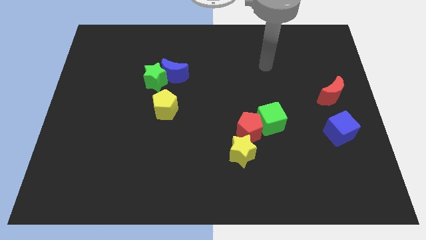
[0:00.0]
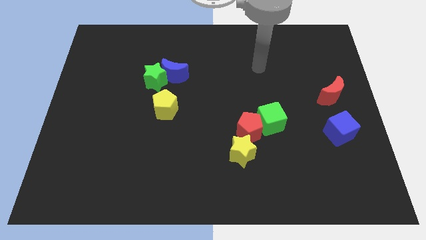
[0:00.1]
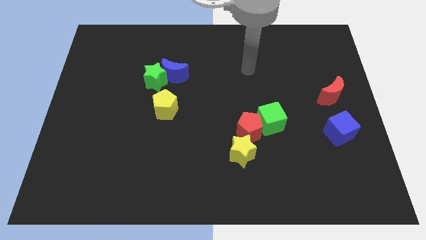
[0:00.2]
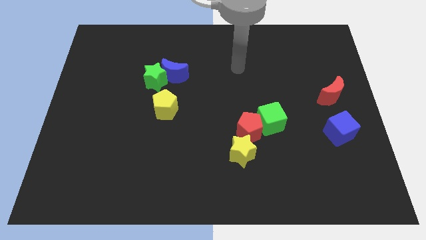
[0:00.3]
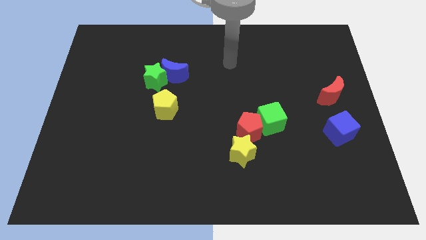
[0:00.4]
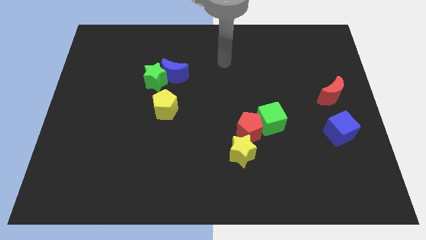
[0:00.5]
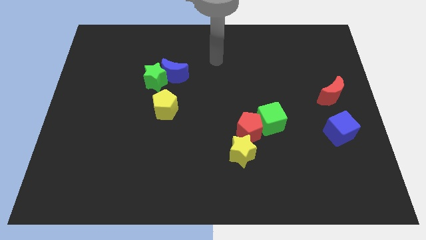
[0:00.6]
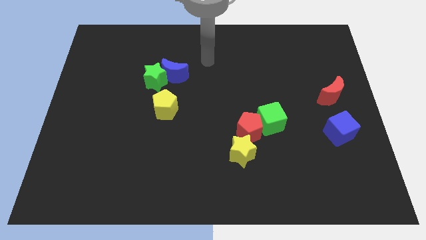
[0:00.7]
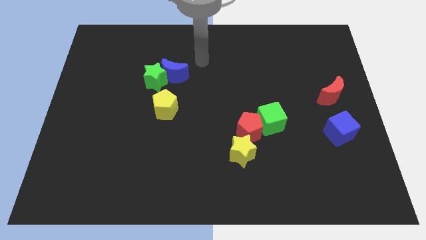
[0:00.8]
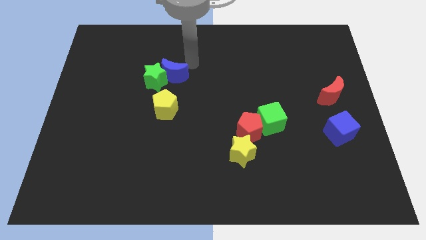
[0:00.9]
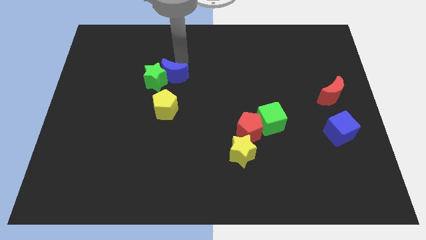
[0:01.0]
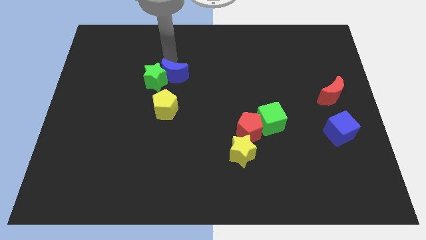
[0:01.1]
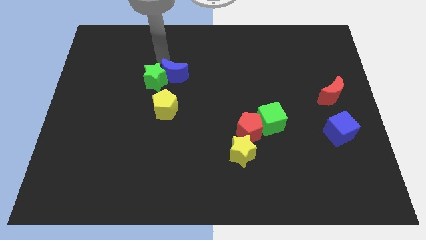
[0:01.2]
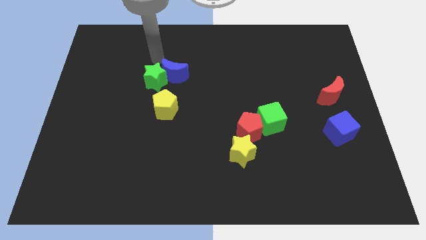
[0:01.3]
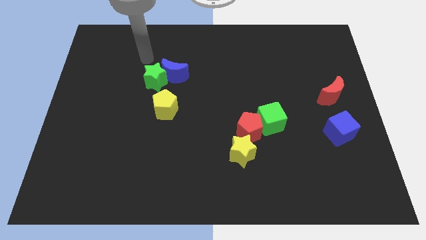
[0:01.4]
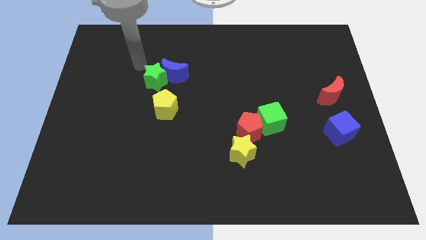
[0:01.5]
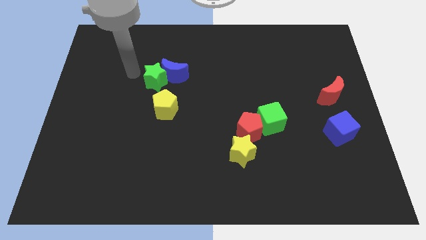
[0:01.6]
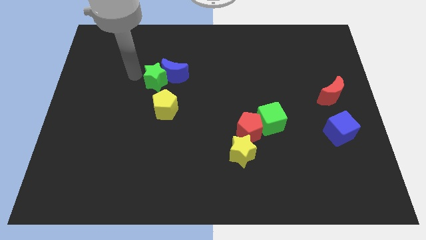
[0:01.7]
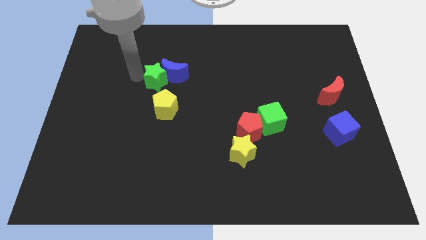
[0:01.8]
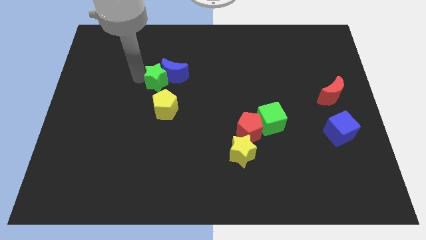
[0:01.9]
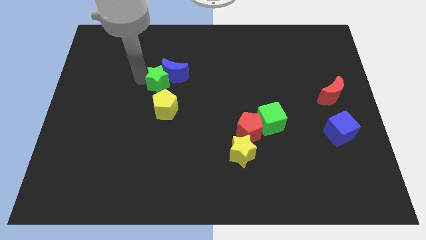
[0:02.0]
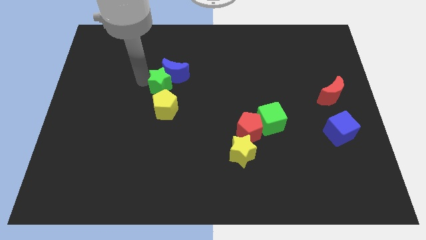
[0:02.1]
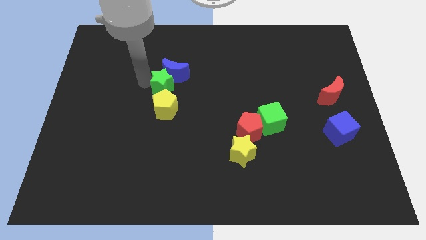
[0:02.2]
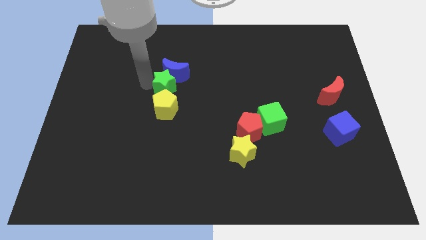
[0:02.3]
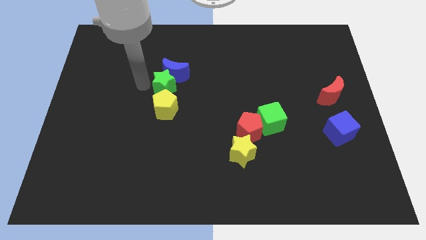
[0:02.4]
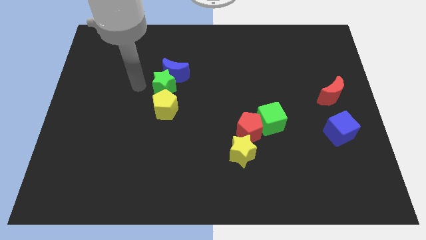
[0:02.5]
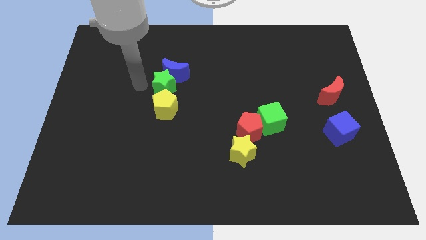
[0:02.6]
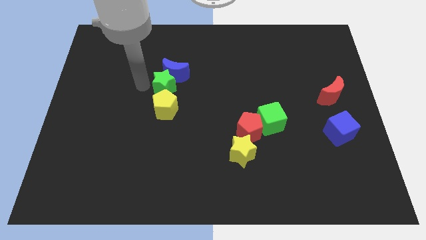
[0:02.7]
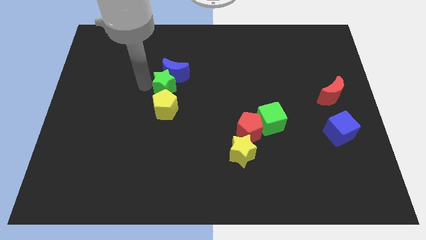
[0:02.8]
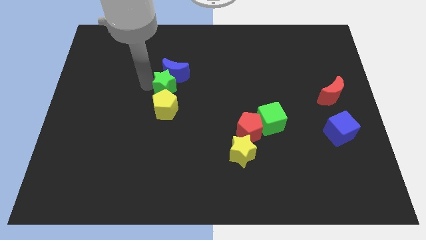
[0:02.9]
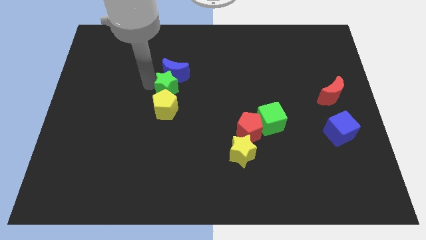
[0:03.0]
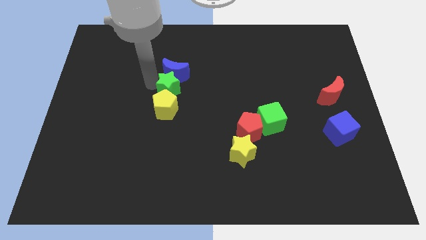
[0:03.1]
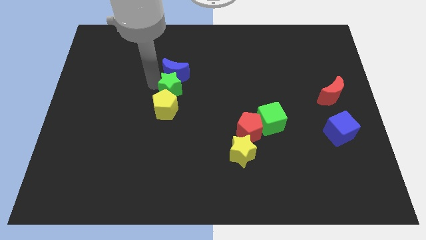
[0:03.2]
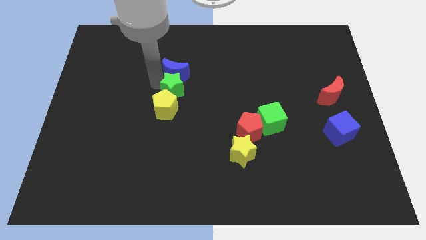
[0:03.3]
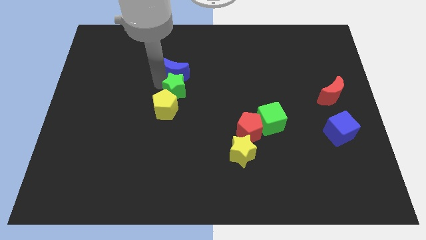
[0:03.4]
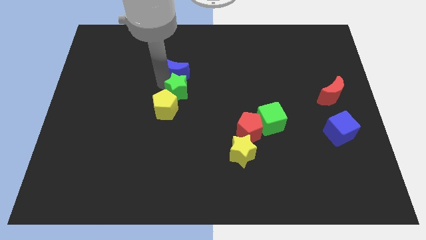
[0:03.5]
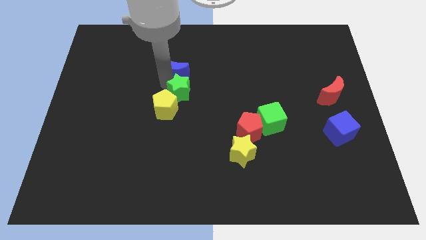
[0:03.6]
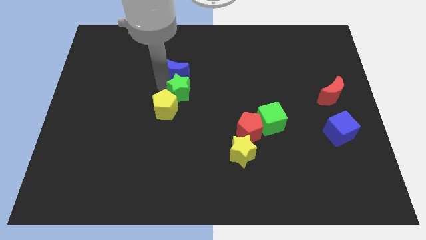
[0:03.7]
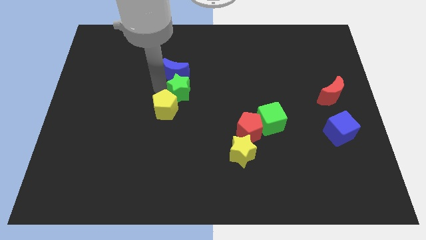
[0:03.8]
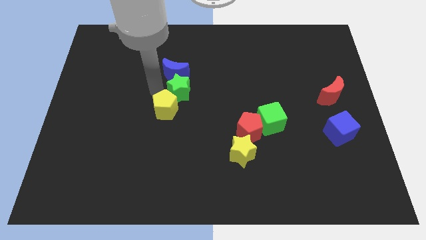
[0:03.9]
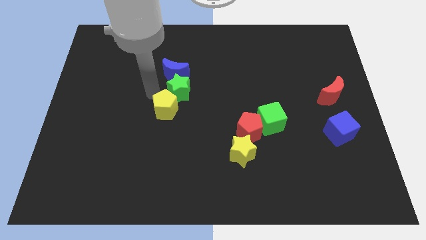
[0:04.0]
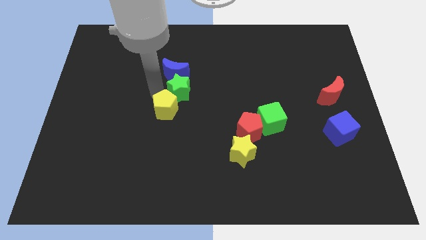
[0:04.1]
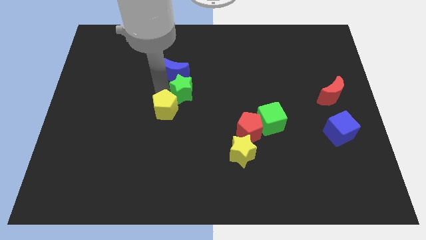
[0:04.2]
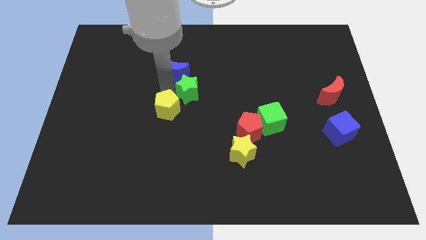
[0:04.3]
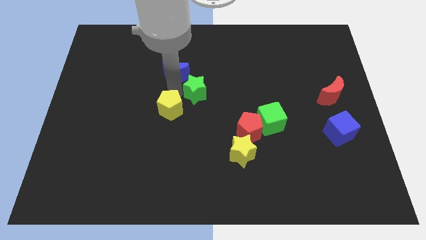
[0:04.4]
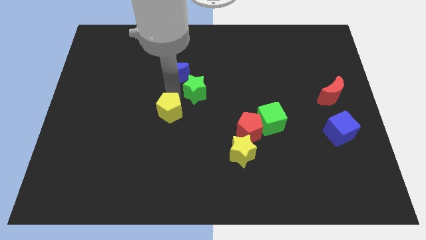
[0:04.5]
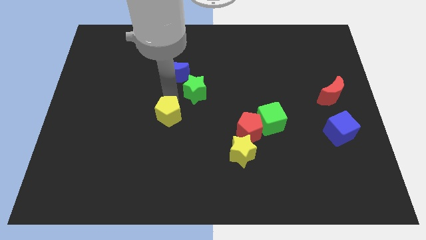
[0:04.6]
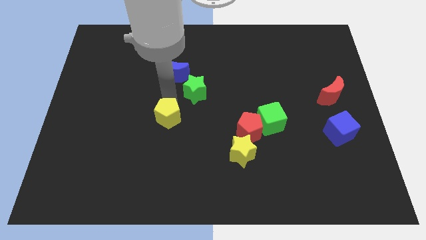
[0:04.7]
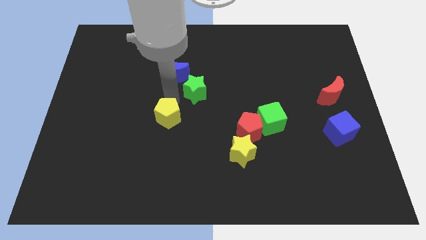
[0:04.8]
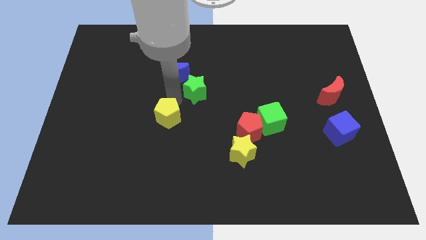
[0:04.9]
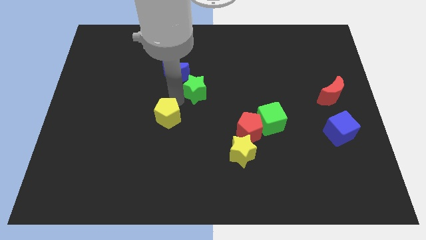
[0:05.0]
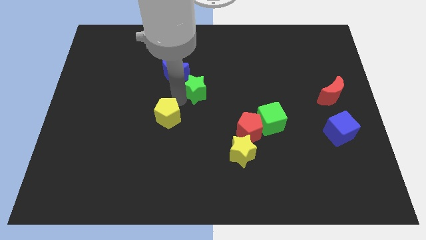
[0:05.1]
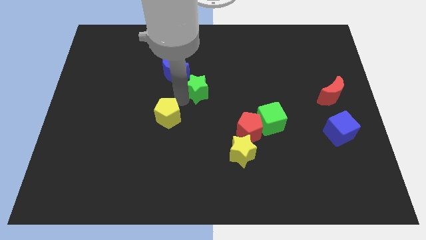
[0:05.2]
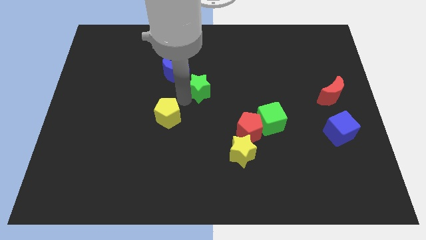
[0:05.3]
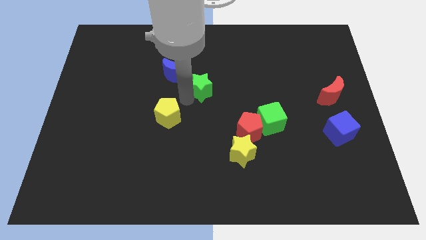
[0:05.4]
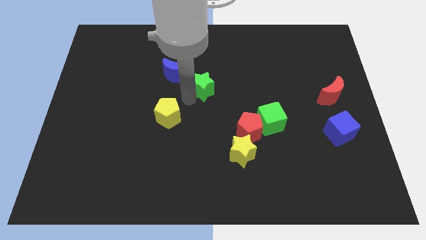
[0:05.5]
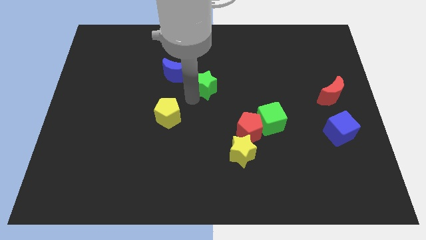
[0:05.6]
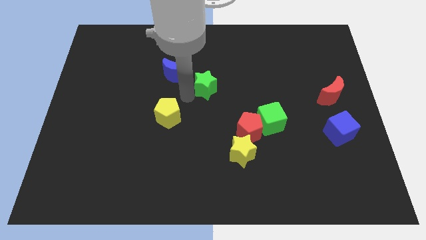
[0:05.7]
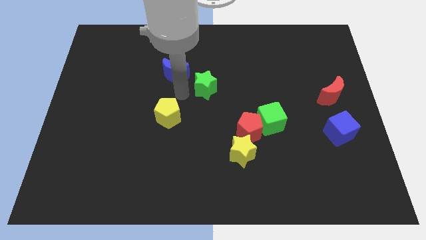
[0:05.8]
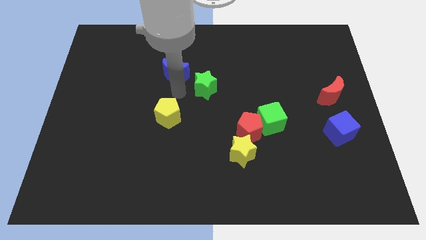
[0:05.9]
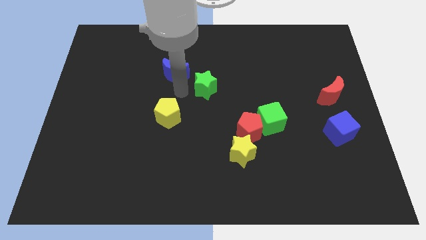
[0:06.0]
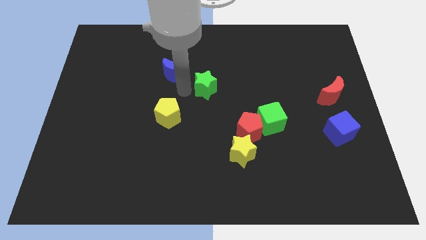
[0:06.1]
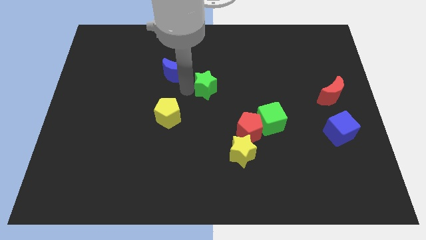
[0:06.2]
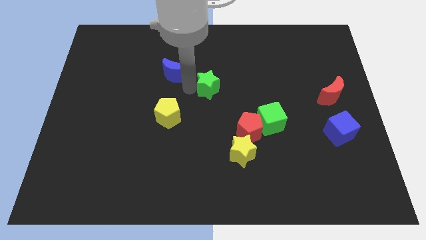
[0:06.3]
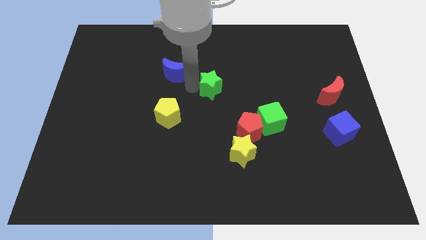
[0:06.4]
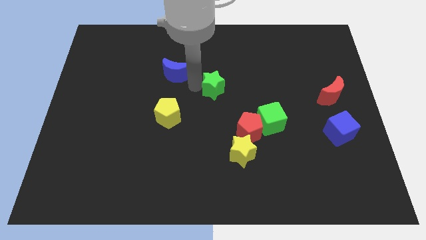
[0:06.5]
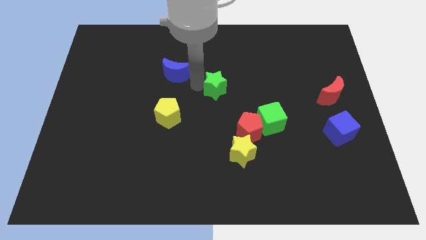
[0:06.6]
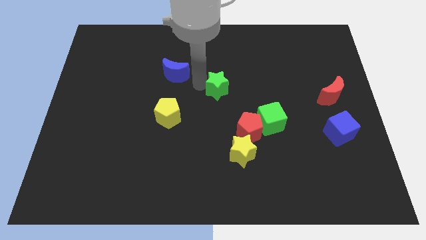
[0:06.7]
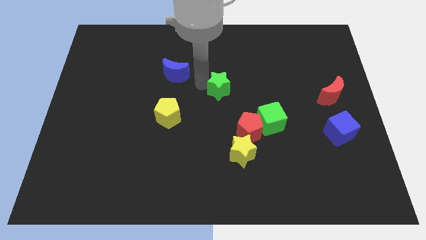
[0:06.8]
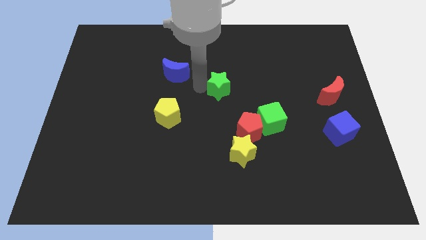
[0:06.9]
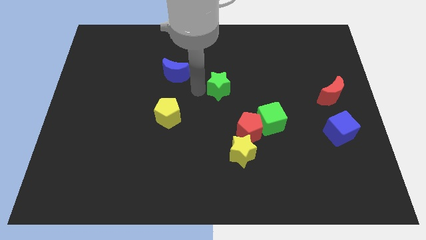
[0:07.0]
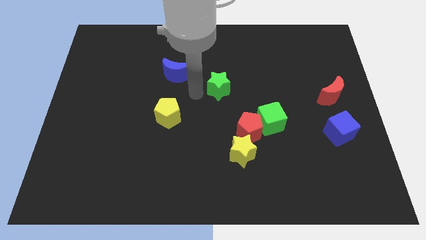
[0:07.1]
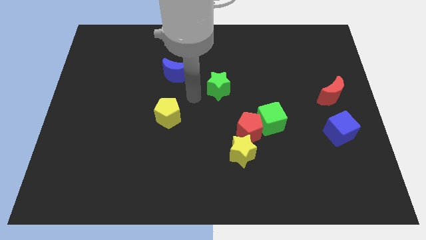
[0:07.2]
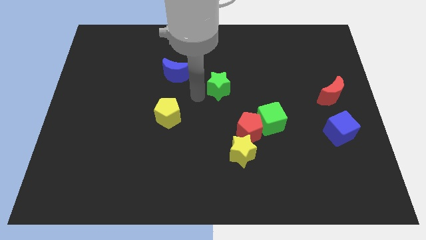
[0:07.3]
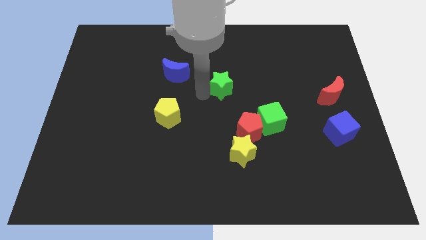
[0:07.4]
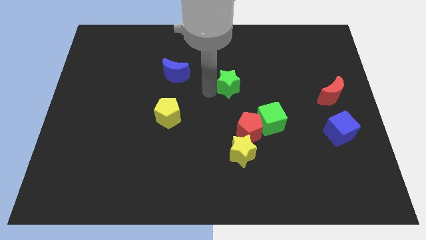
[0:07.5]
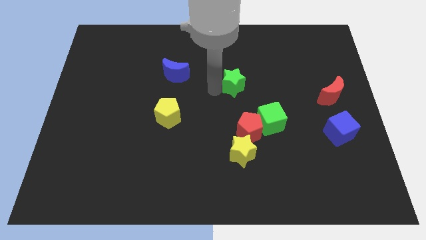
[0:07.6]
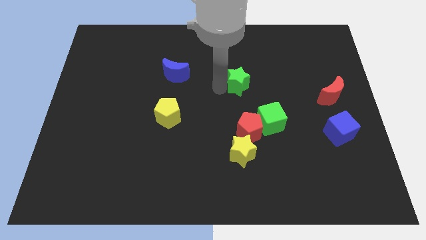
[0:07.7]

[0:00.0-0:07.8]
push the green star right

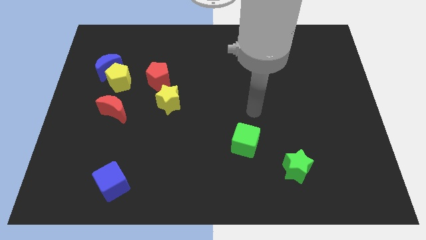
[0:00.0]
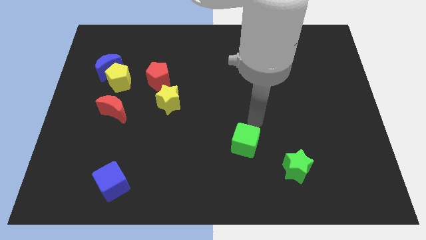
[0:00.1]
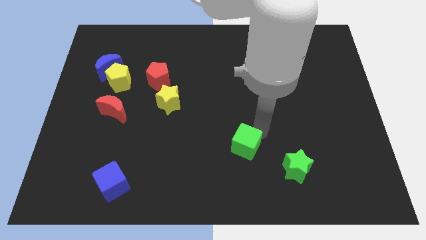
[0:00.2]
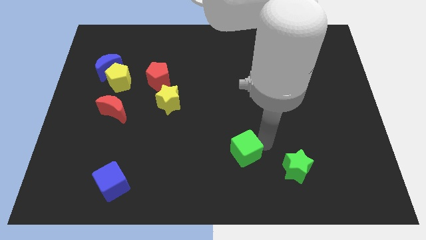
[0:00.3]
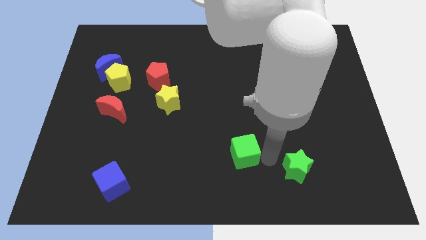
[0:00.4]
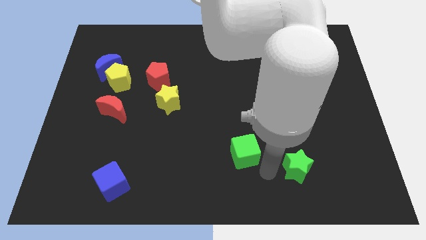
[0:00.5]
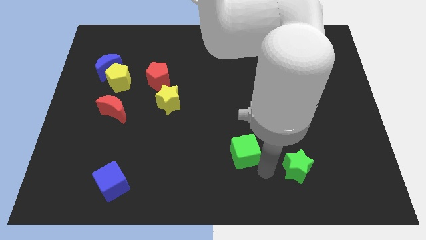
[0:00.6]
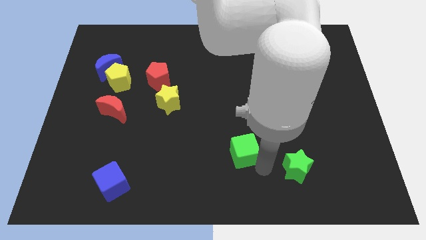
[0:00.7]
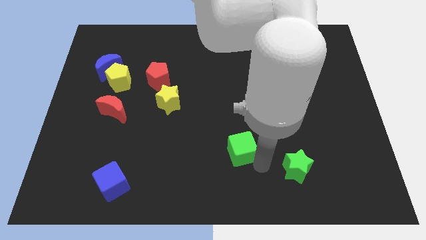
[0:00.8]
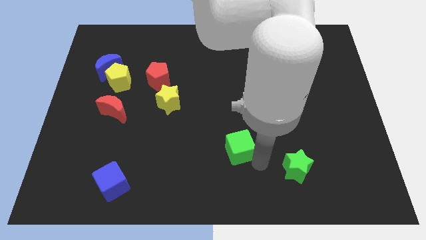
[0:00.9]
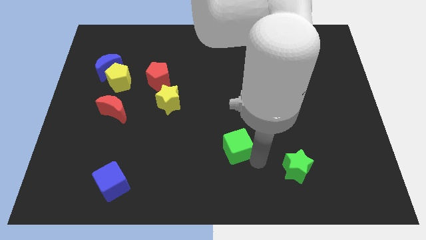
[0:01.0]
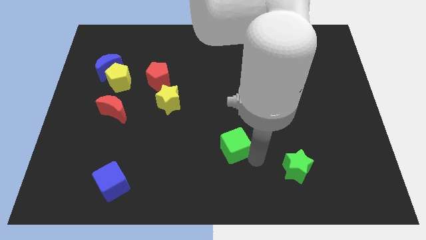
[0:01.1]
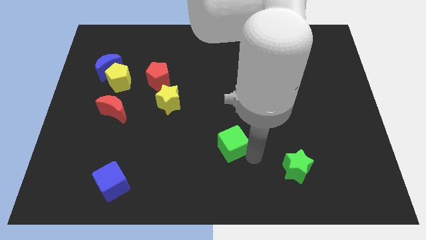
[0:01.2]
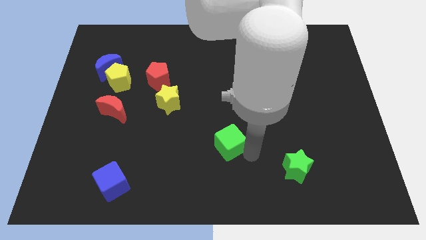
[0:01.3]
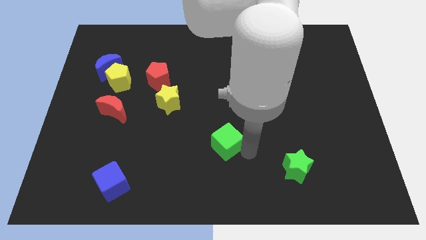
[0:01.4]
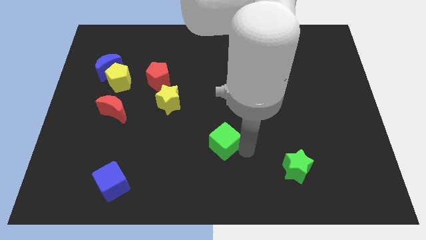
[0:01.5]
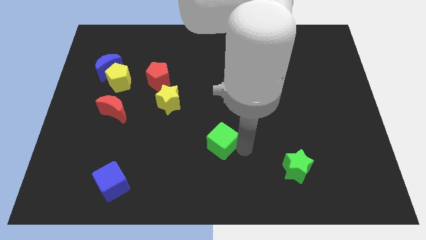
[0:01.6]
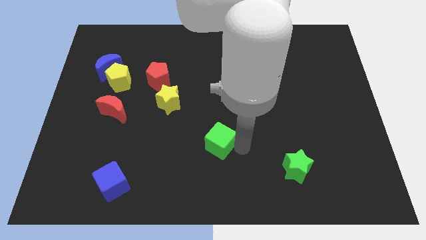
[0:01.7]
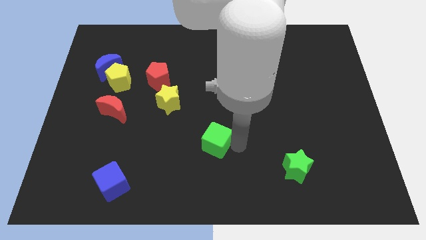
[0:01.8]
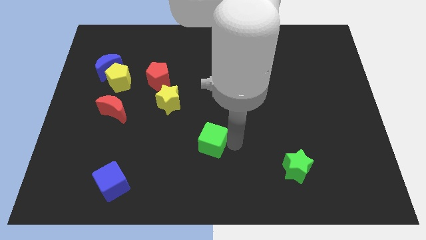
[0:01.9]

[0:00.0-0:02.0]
move the green cube a bit left
